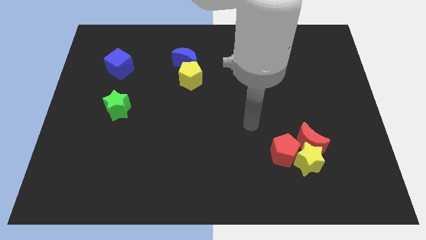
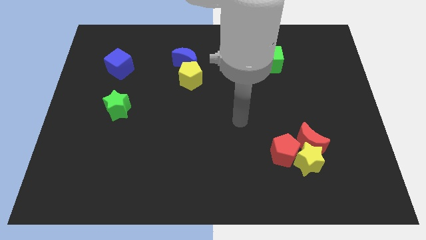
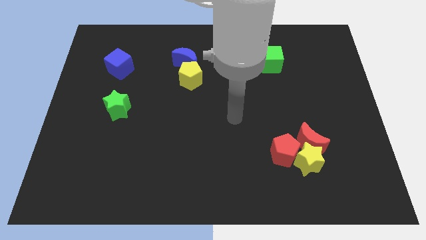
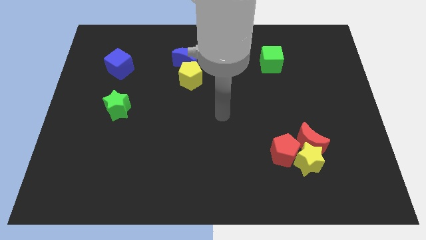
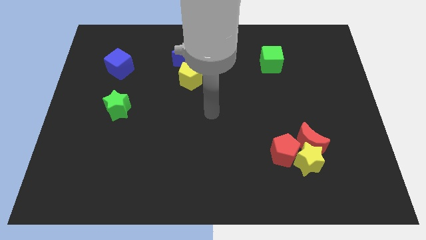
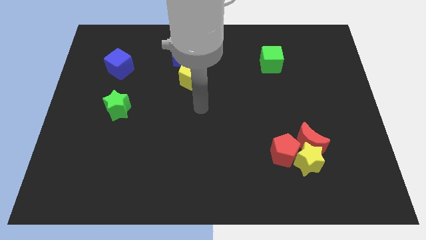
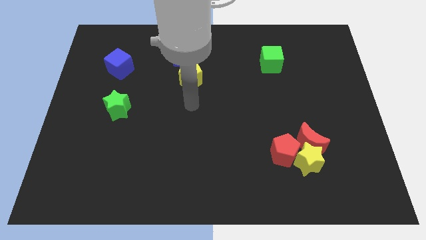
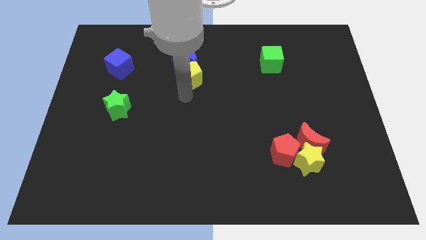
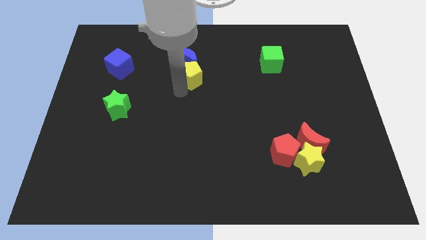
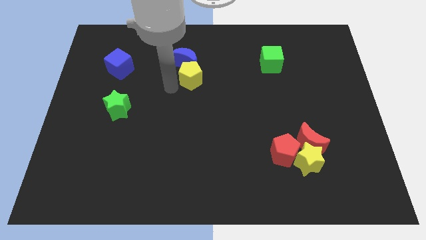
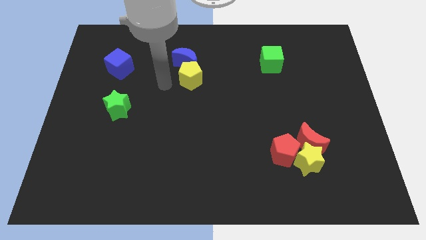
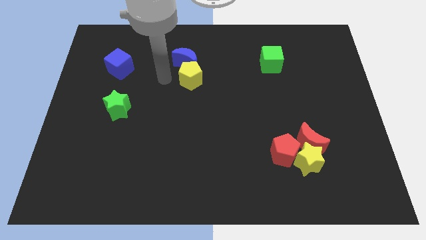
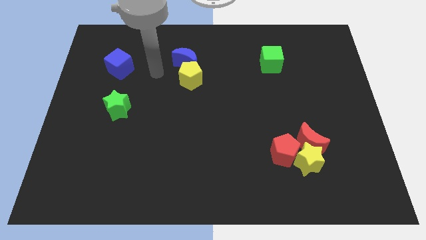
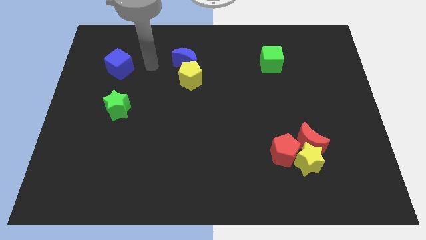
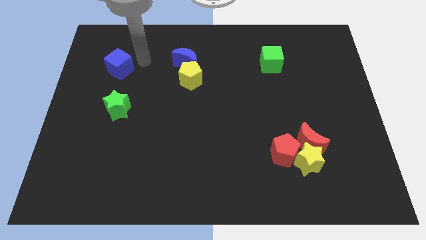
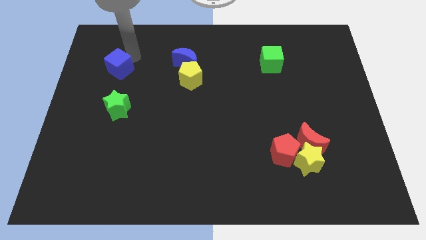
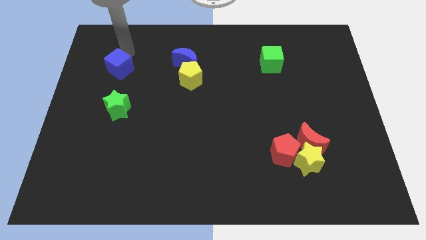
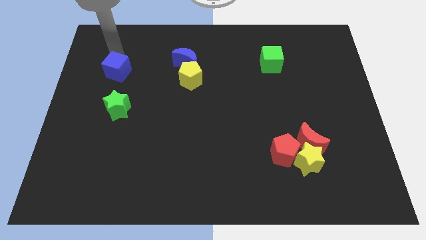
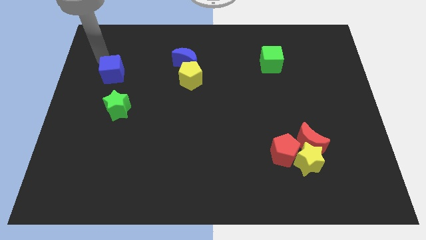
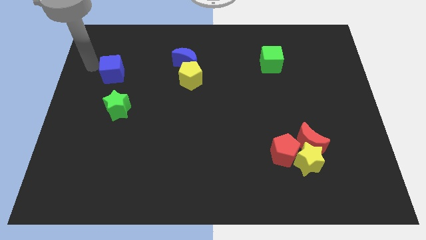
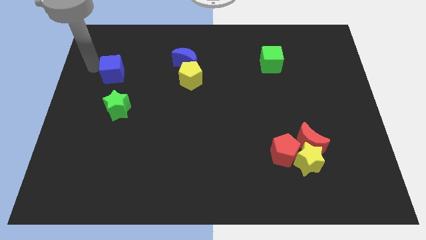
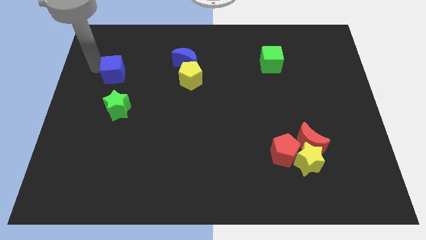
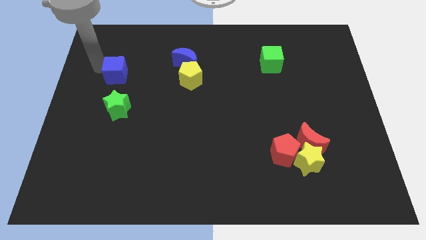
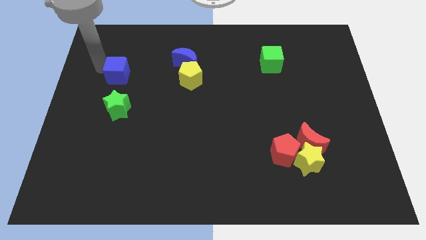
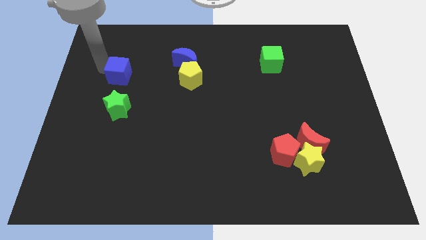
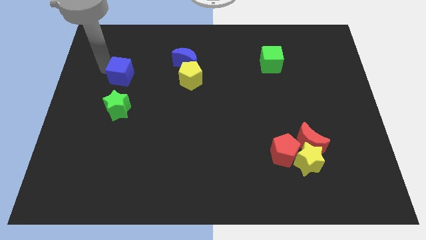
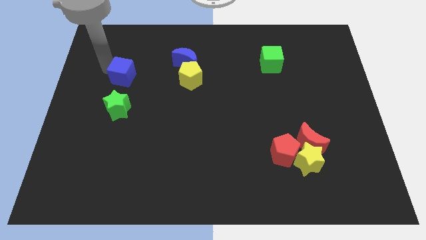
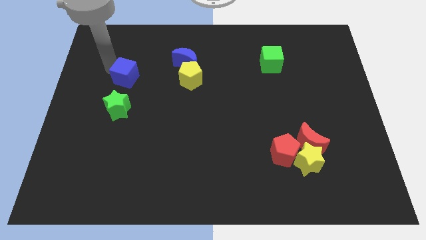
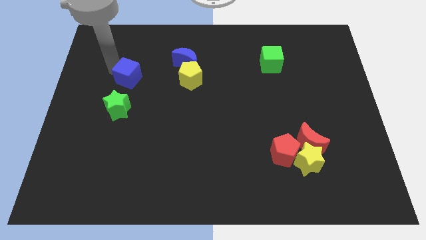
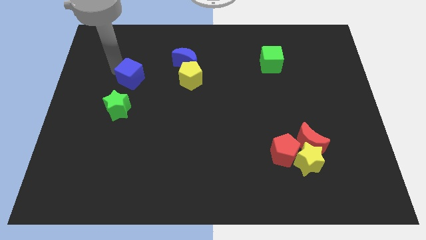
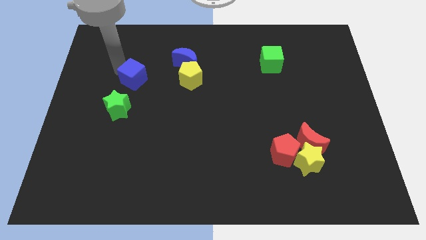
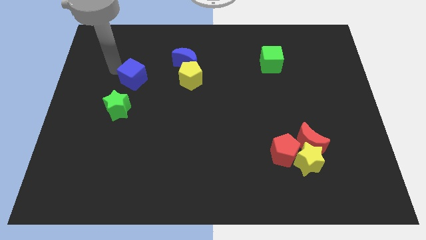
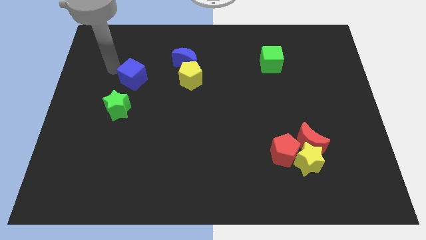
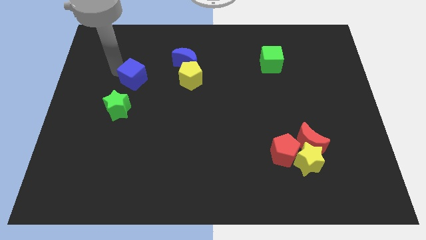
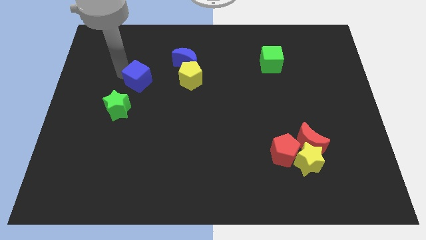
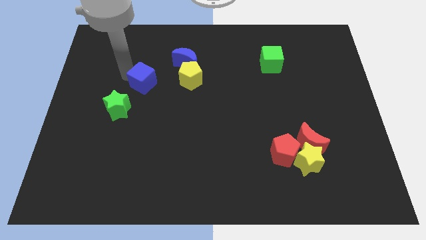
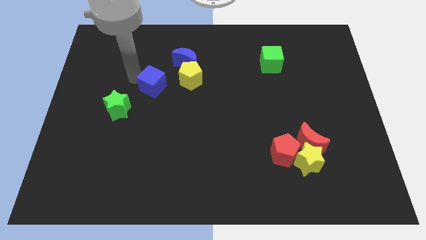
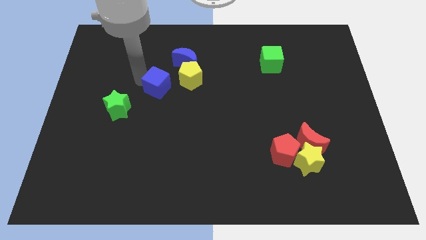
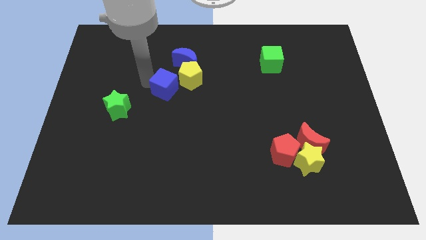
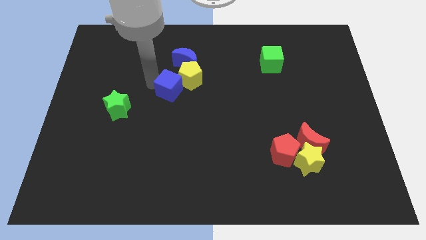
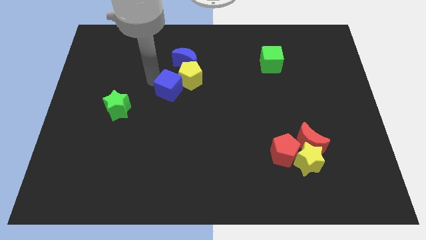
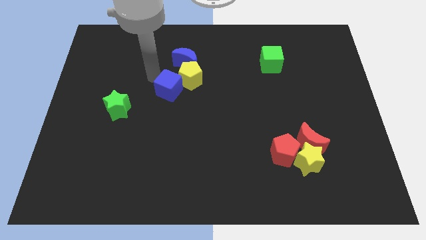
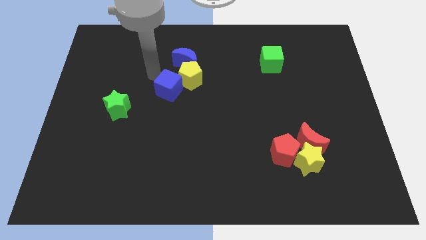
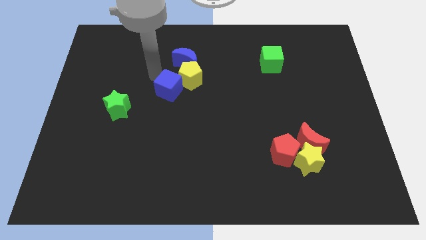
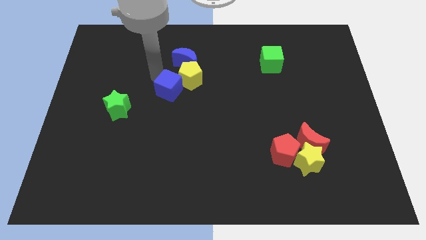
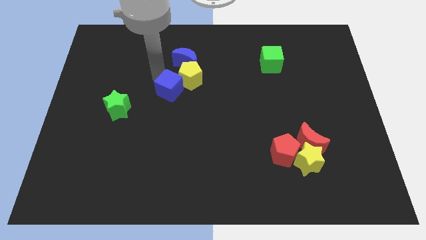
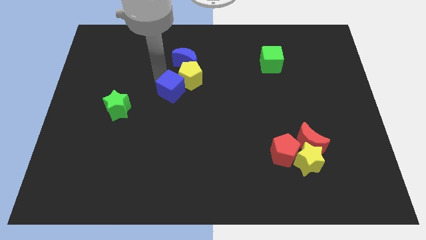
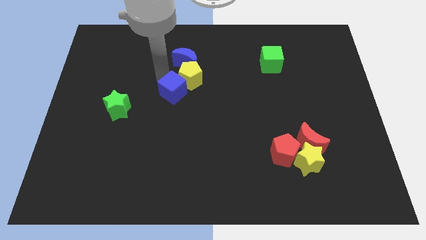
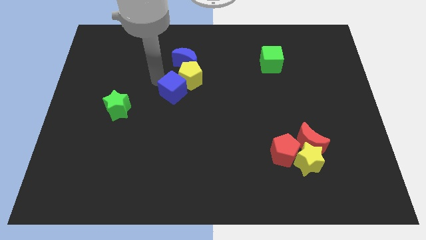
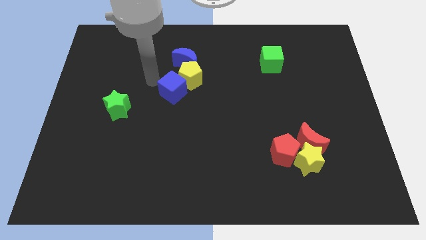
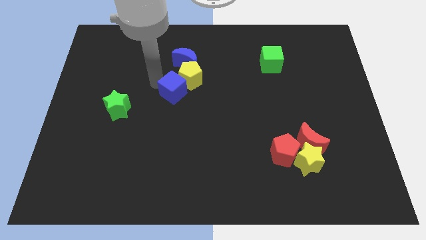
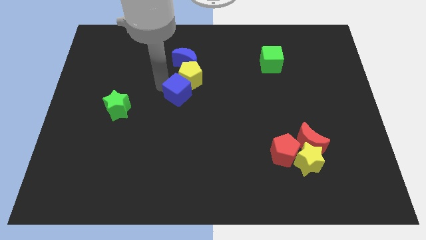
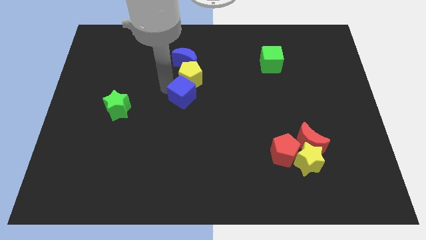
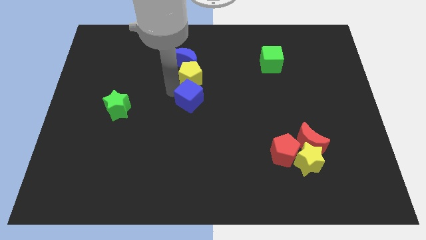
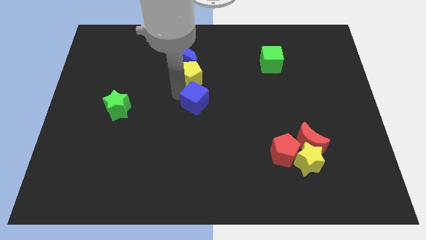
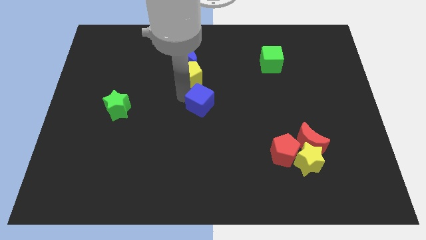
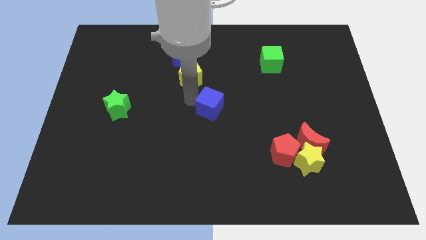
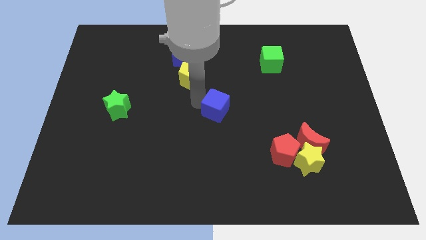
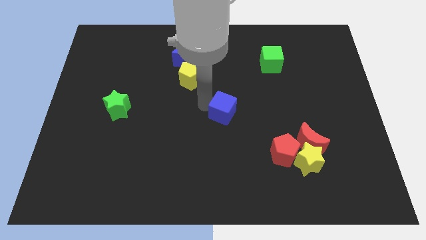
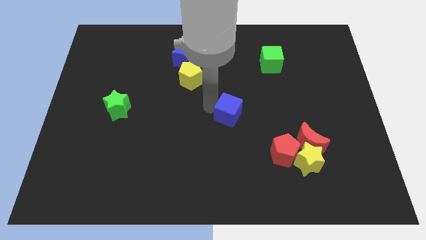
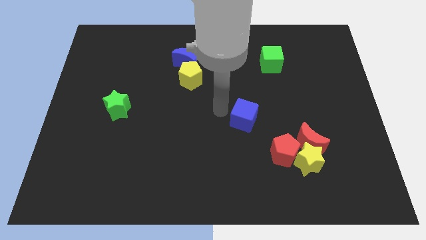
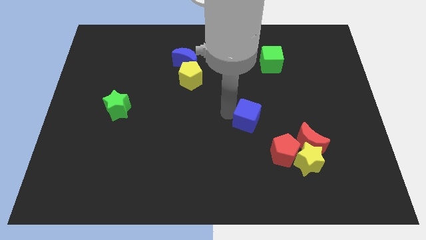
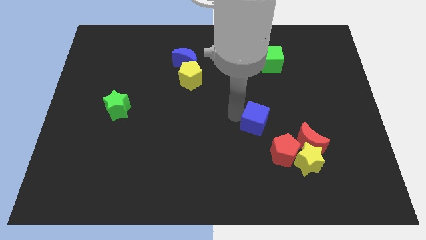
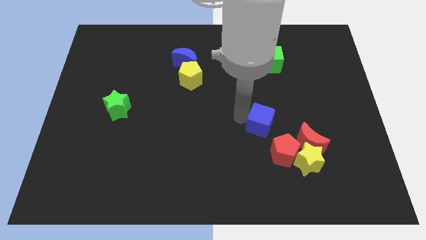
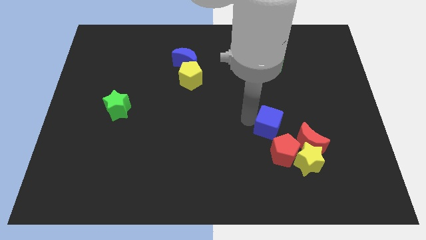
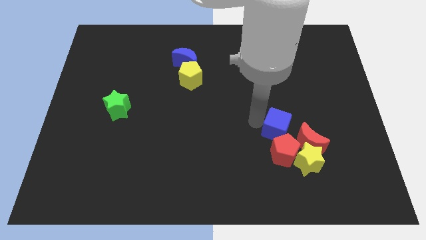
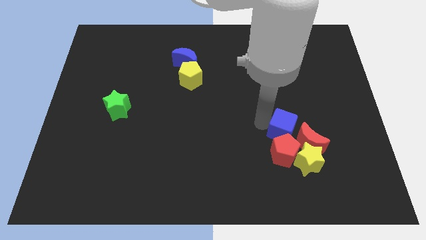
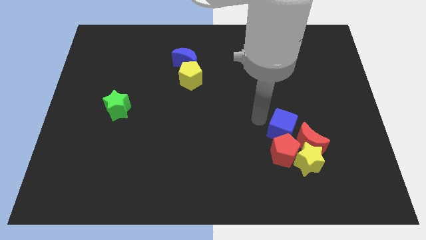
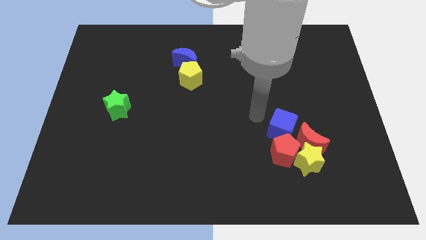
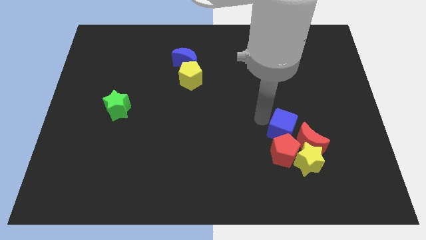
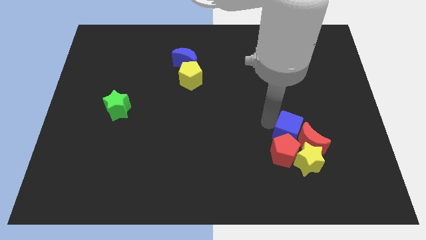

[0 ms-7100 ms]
slide the blue cube next to the red moon
